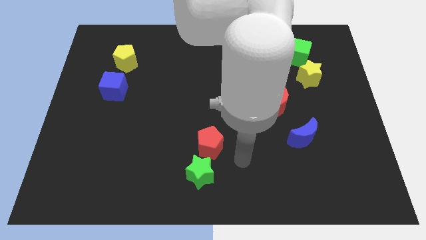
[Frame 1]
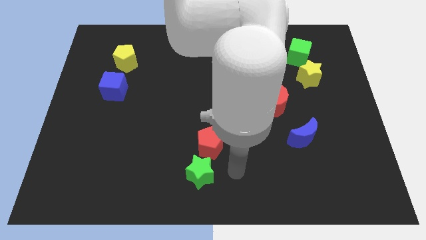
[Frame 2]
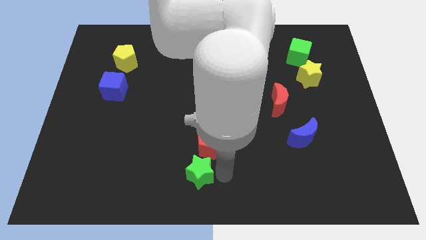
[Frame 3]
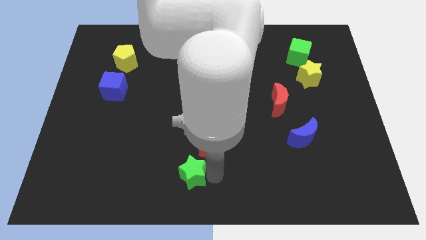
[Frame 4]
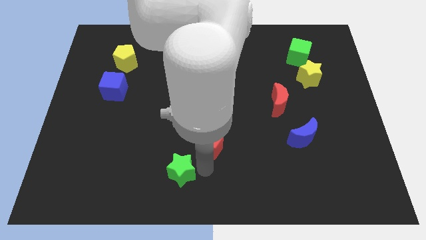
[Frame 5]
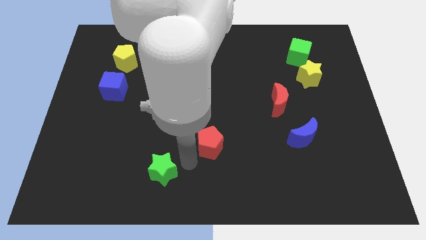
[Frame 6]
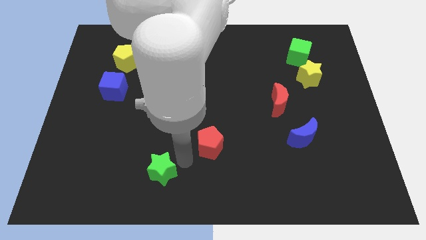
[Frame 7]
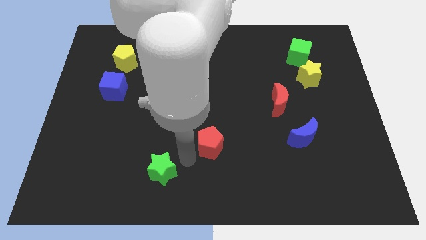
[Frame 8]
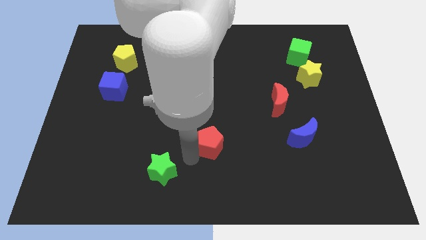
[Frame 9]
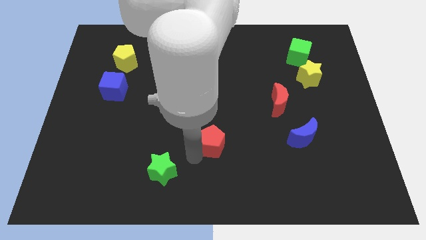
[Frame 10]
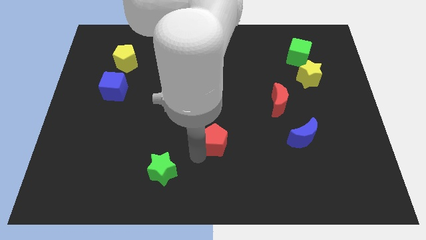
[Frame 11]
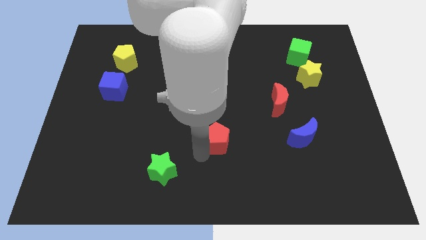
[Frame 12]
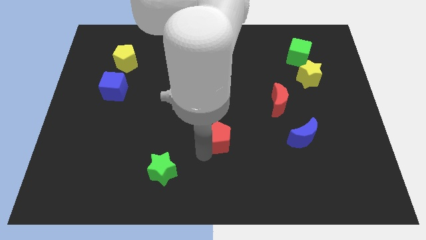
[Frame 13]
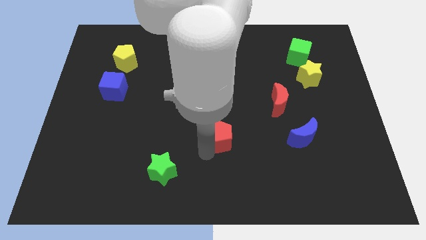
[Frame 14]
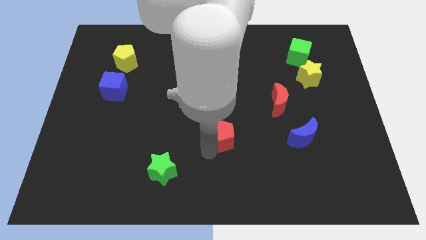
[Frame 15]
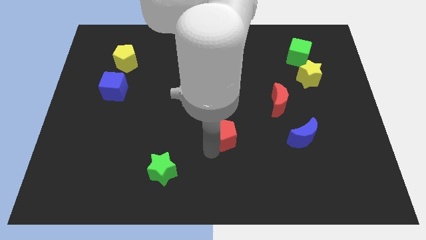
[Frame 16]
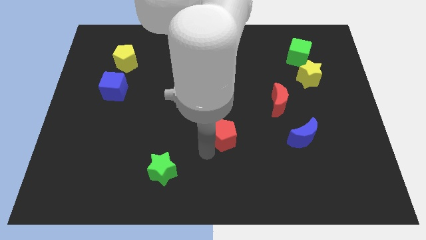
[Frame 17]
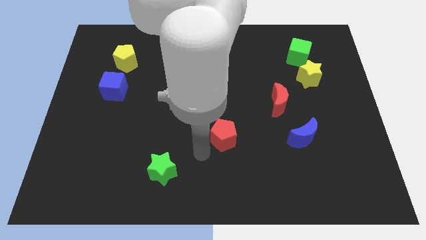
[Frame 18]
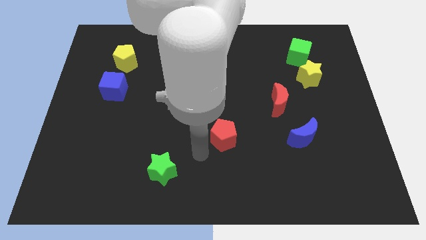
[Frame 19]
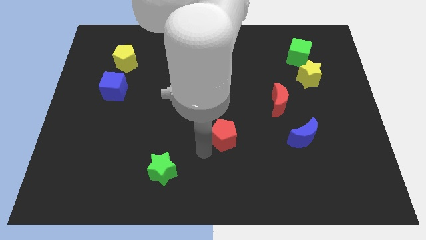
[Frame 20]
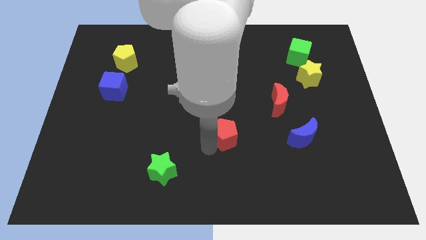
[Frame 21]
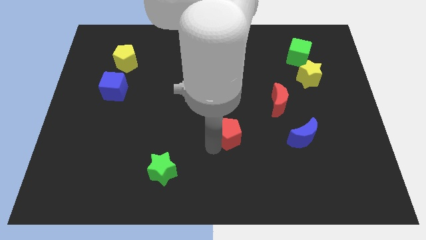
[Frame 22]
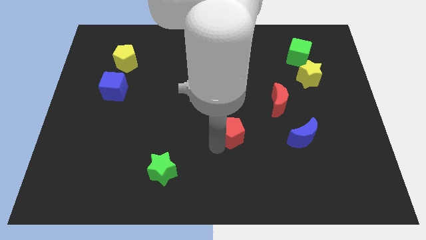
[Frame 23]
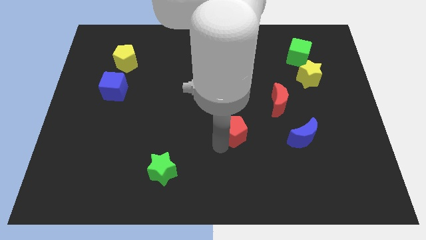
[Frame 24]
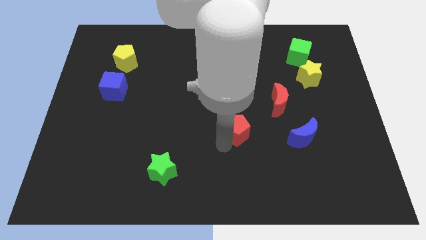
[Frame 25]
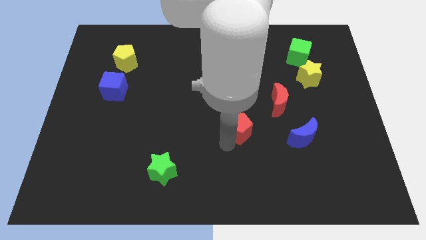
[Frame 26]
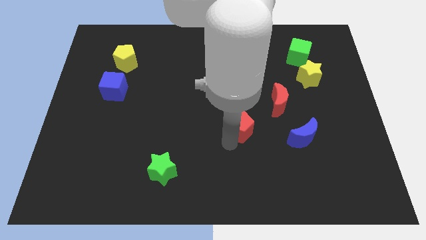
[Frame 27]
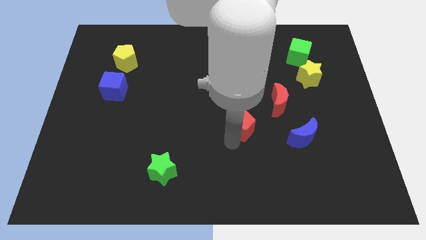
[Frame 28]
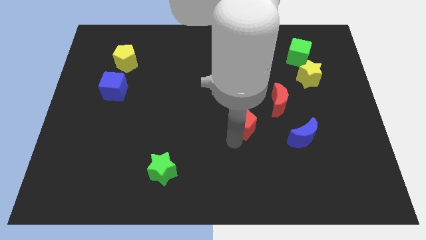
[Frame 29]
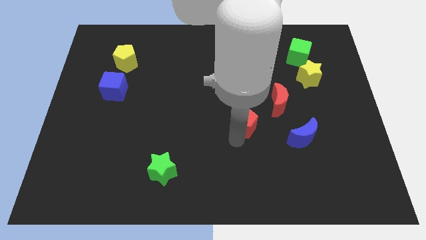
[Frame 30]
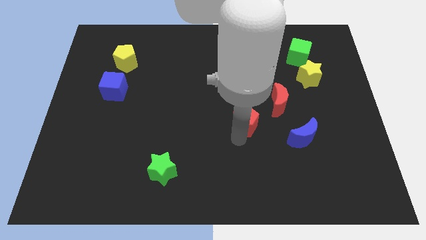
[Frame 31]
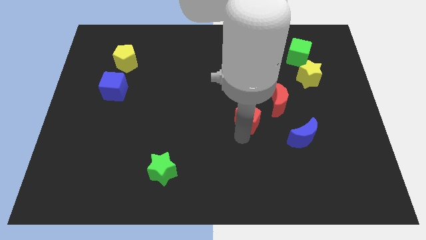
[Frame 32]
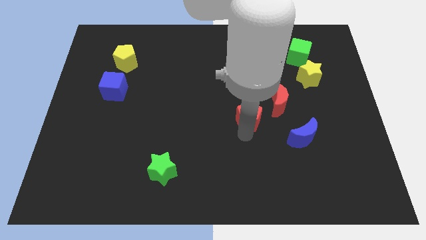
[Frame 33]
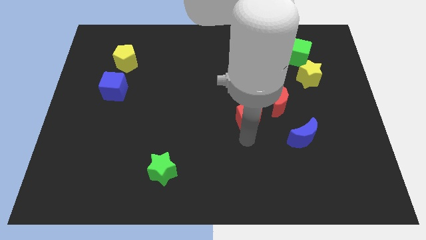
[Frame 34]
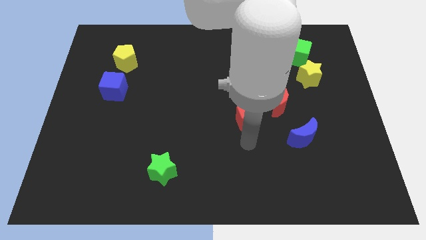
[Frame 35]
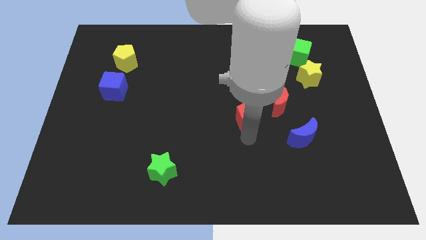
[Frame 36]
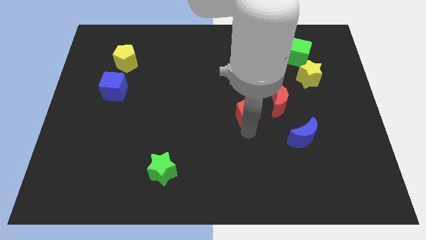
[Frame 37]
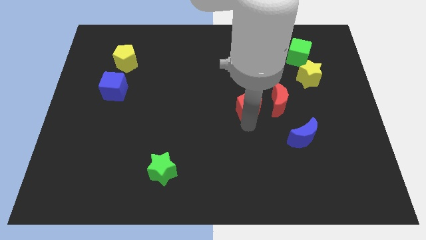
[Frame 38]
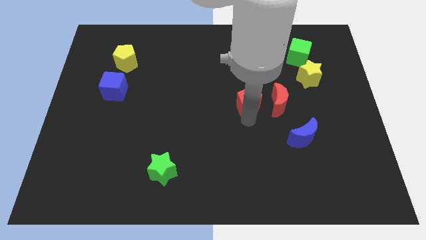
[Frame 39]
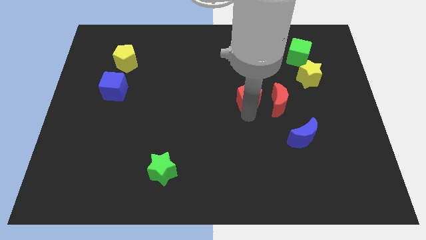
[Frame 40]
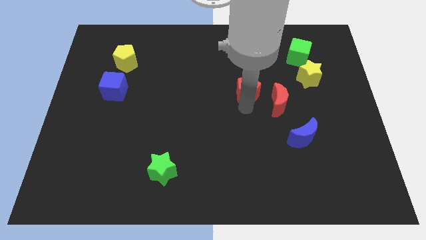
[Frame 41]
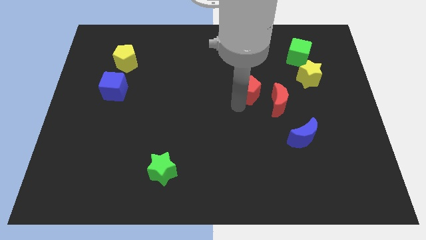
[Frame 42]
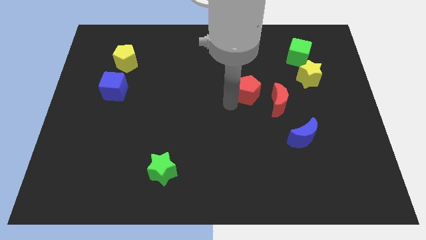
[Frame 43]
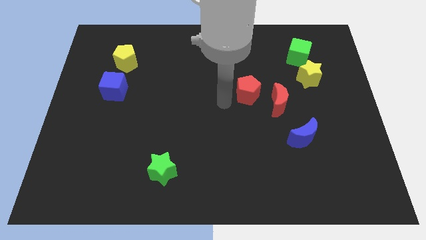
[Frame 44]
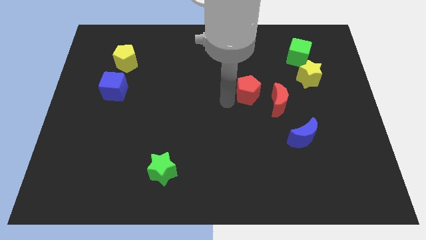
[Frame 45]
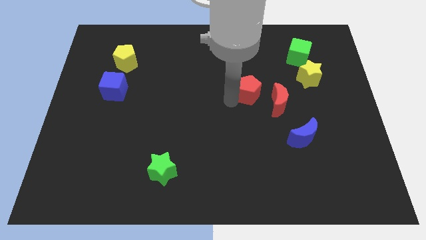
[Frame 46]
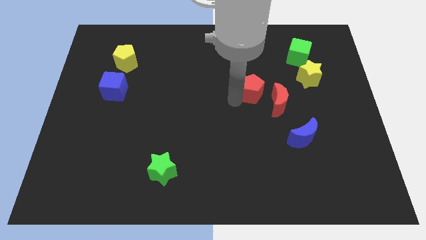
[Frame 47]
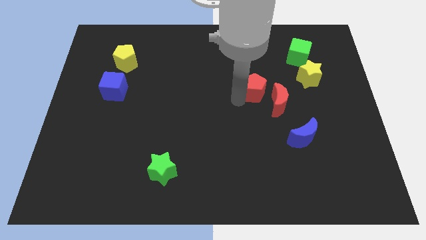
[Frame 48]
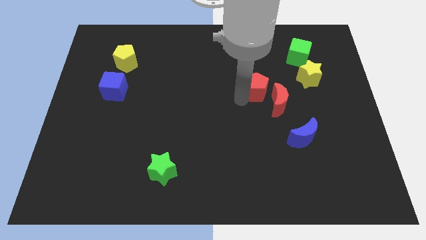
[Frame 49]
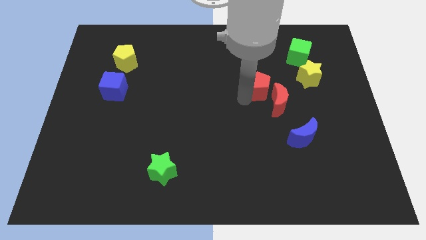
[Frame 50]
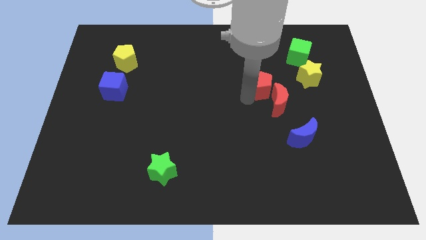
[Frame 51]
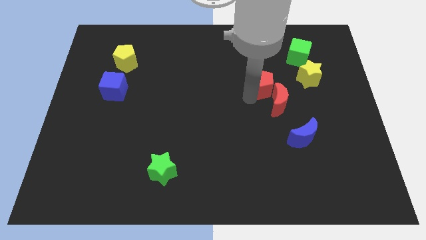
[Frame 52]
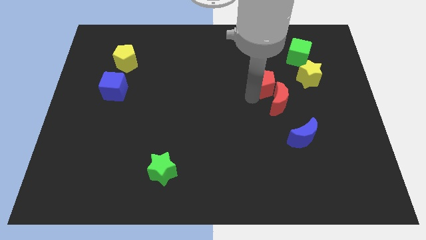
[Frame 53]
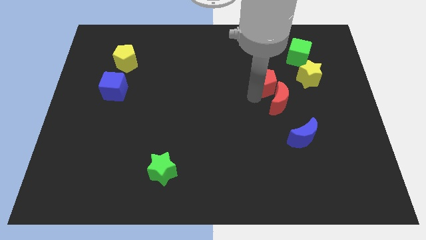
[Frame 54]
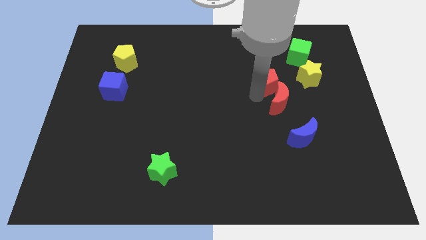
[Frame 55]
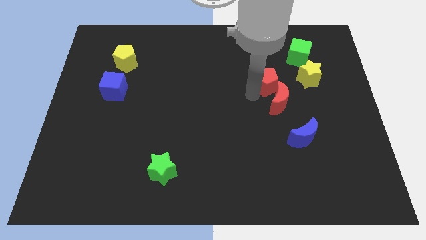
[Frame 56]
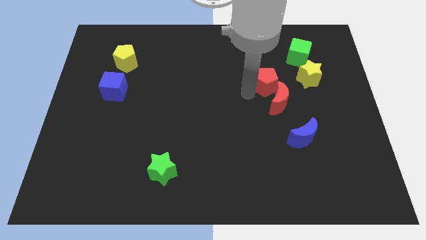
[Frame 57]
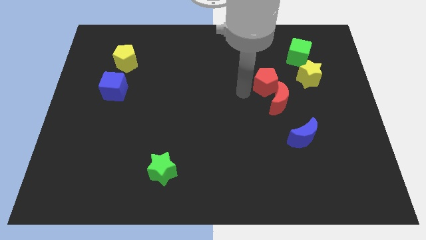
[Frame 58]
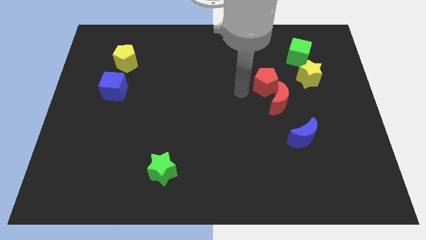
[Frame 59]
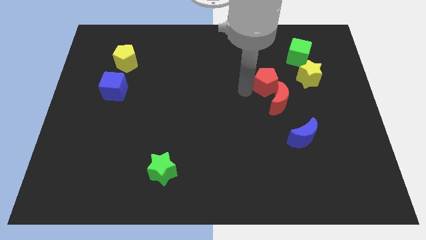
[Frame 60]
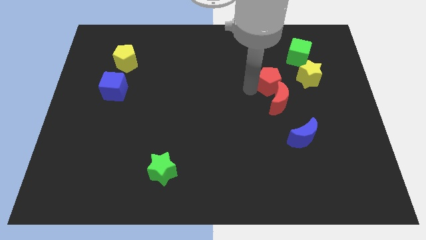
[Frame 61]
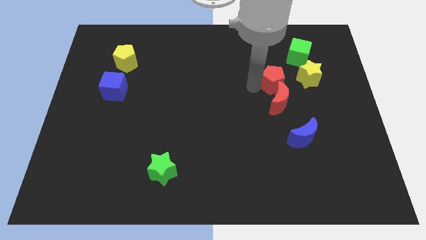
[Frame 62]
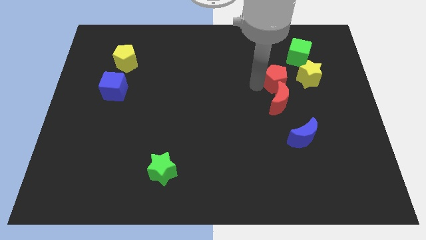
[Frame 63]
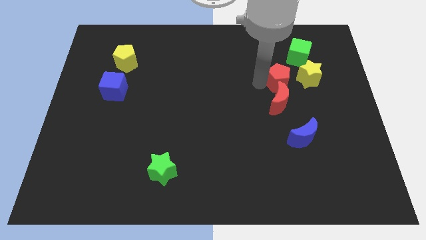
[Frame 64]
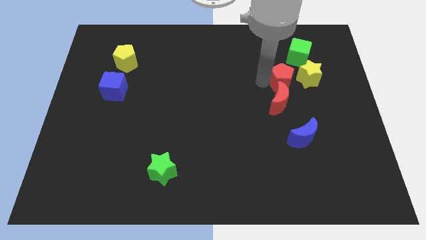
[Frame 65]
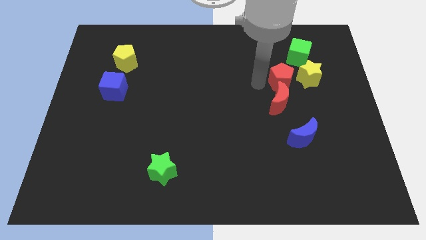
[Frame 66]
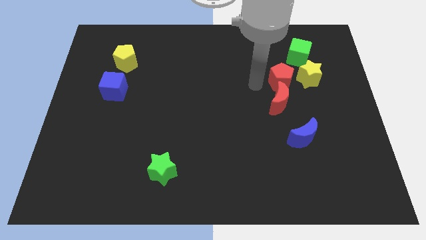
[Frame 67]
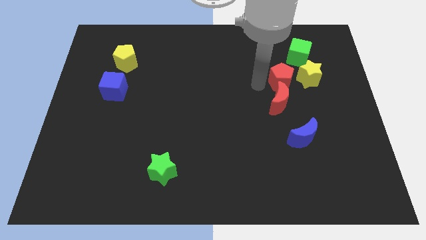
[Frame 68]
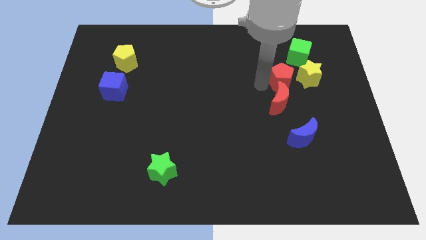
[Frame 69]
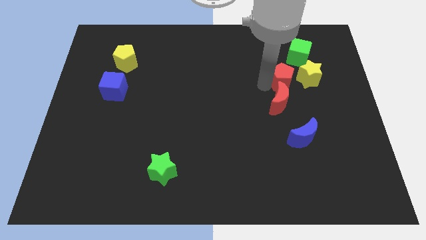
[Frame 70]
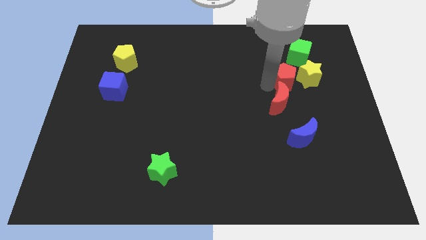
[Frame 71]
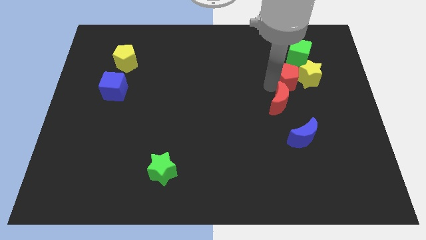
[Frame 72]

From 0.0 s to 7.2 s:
move the red pentagon next to the yellow star
